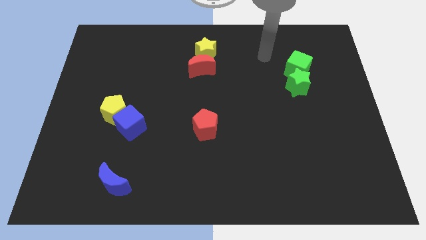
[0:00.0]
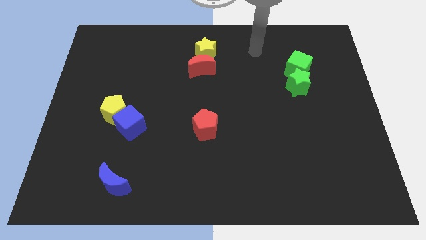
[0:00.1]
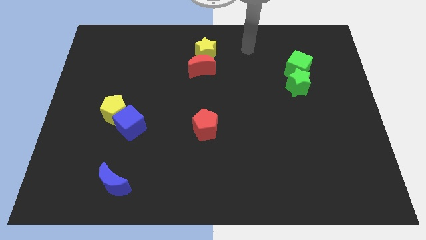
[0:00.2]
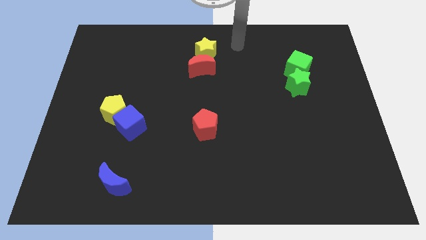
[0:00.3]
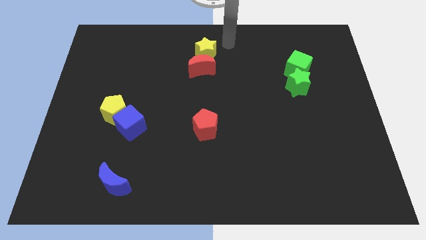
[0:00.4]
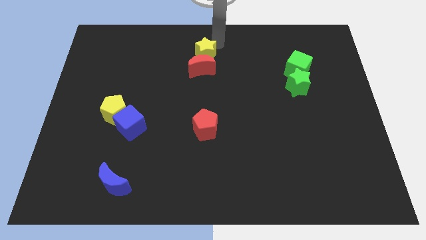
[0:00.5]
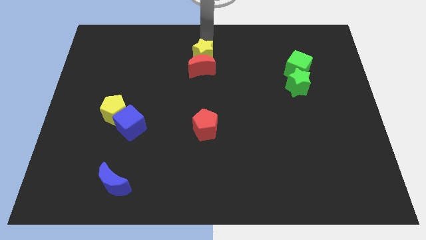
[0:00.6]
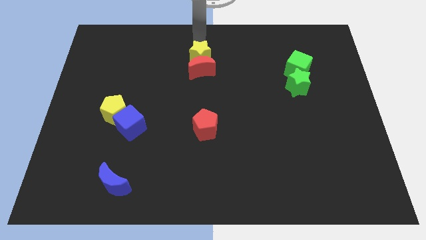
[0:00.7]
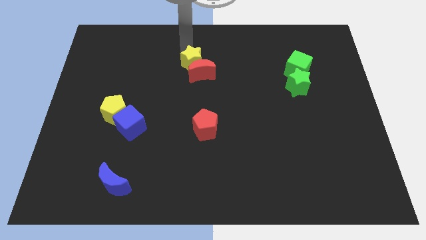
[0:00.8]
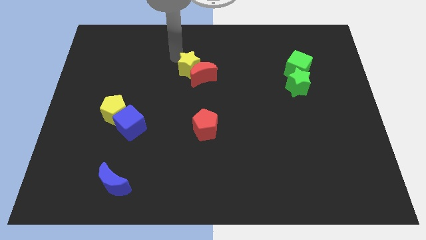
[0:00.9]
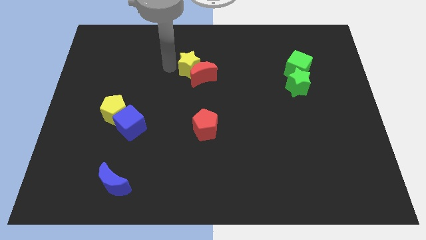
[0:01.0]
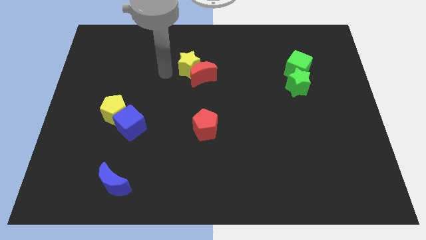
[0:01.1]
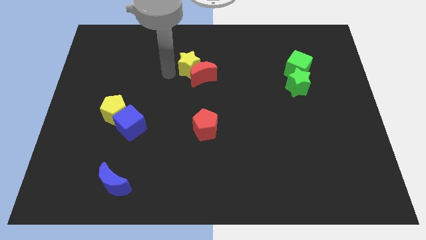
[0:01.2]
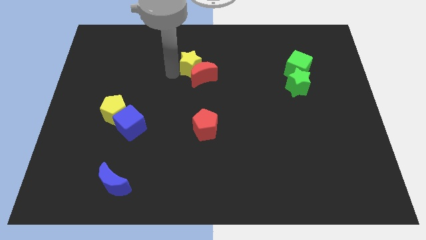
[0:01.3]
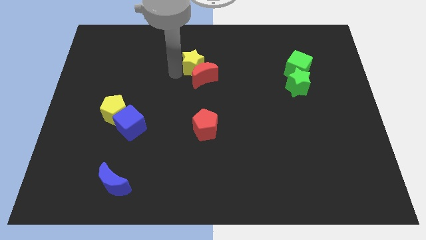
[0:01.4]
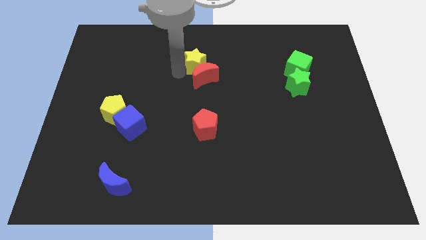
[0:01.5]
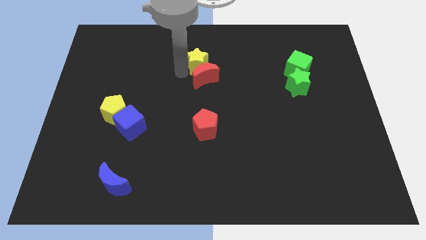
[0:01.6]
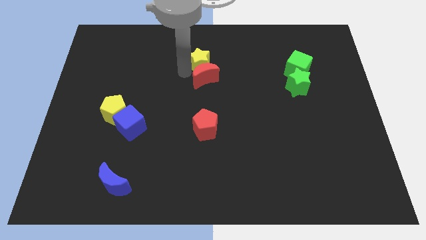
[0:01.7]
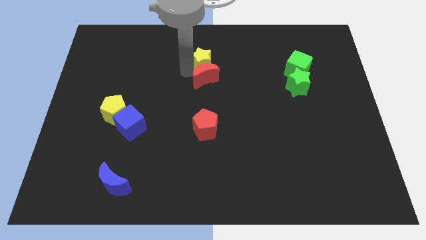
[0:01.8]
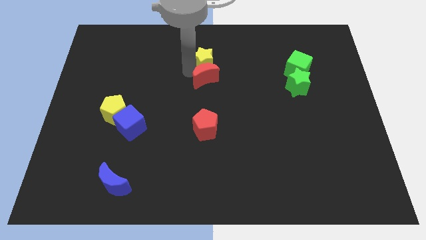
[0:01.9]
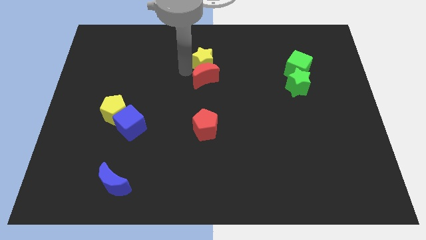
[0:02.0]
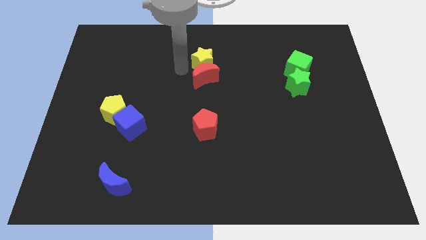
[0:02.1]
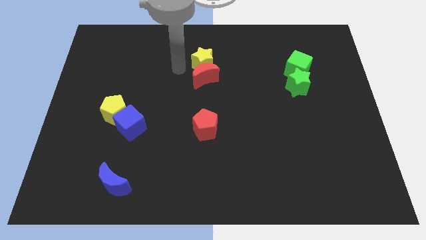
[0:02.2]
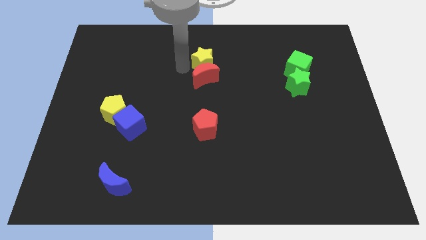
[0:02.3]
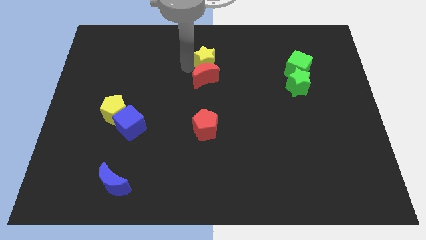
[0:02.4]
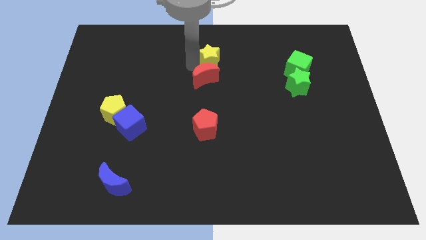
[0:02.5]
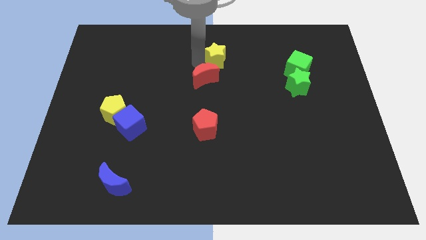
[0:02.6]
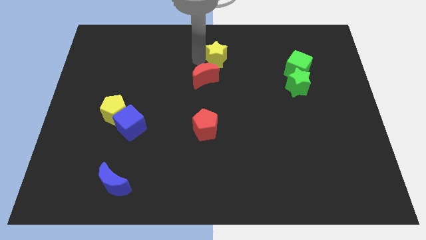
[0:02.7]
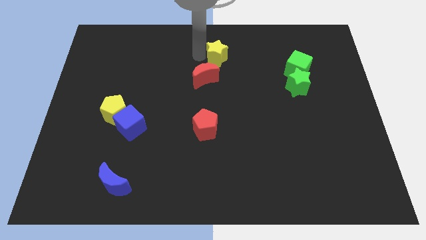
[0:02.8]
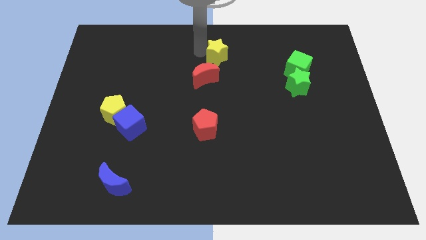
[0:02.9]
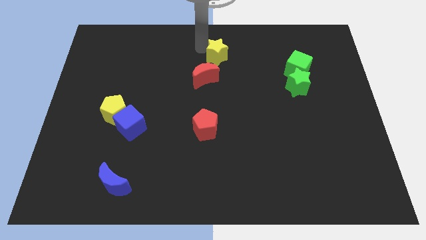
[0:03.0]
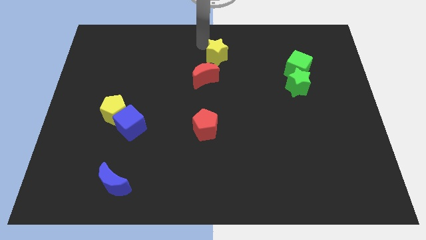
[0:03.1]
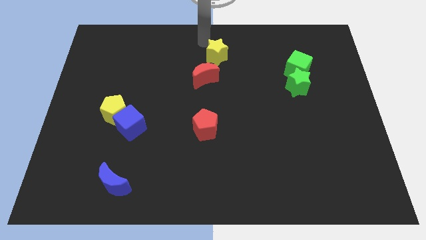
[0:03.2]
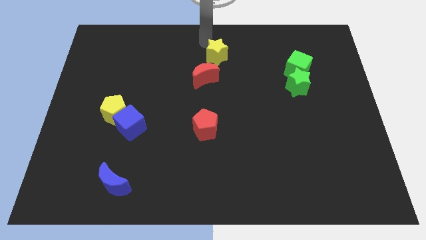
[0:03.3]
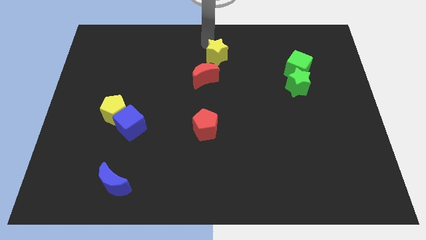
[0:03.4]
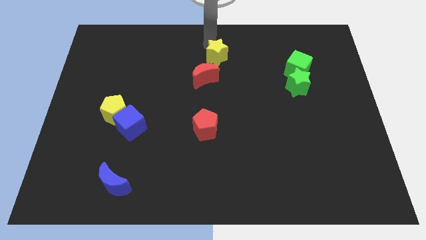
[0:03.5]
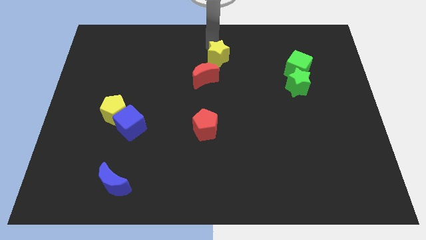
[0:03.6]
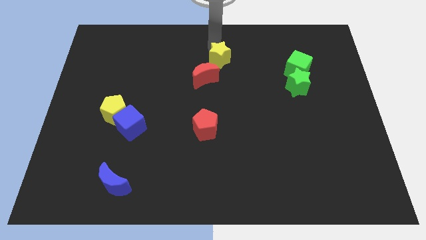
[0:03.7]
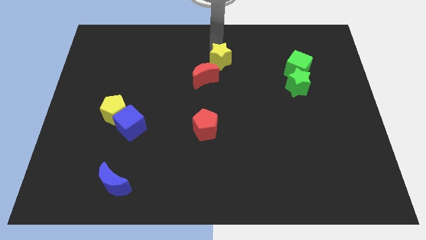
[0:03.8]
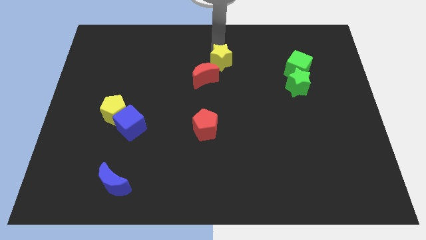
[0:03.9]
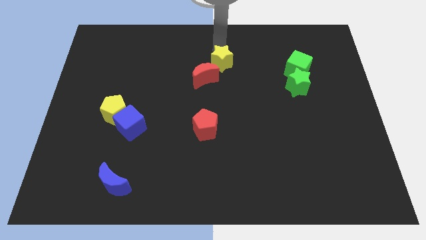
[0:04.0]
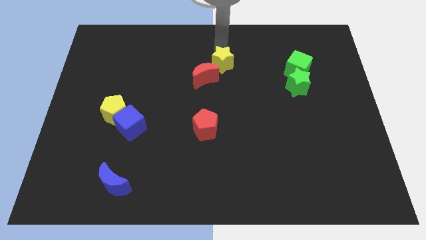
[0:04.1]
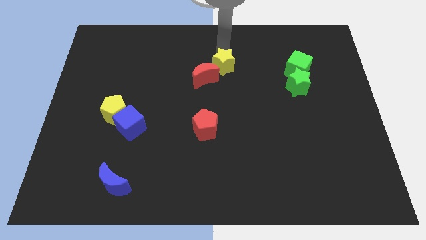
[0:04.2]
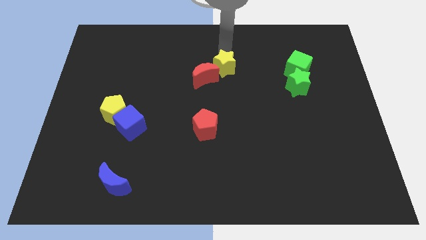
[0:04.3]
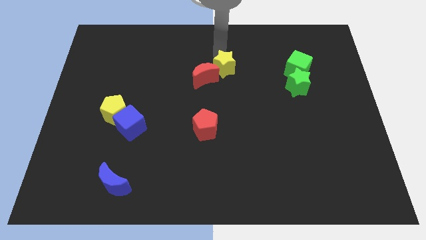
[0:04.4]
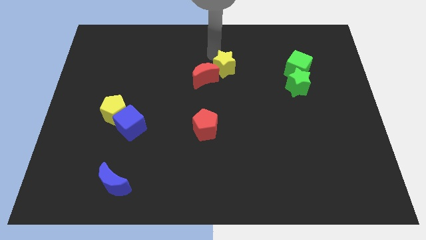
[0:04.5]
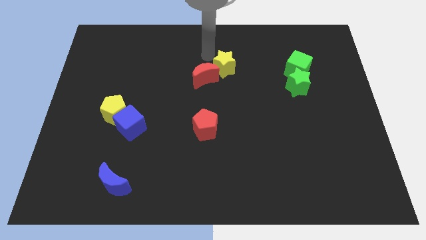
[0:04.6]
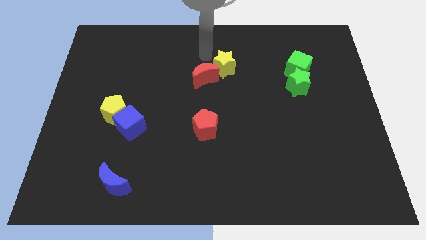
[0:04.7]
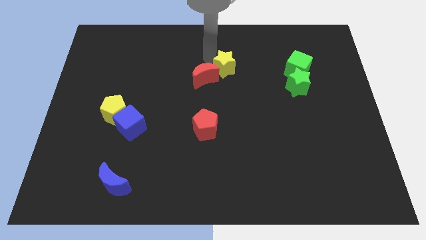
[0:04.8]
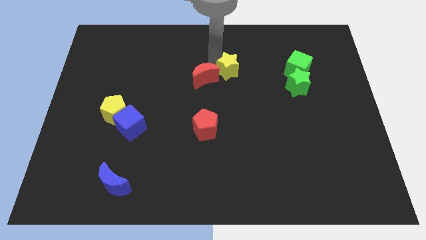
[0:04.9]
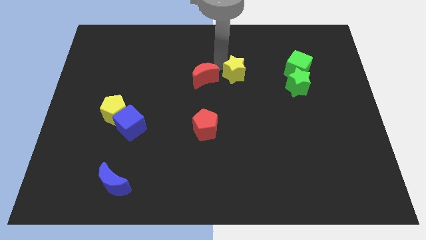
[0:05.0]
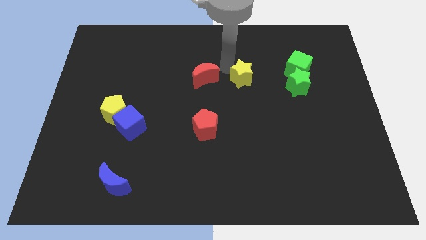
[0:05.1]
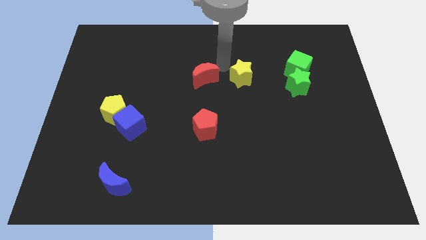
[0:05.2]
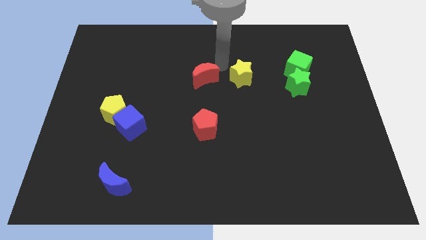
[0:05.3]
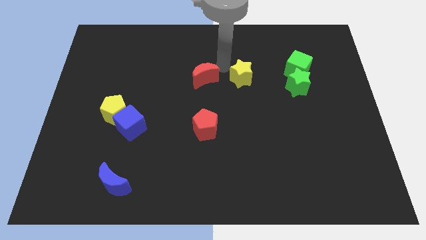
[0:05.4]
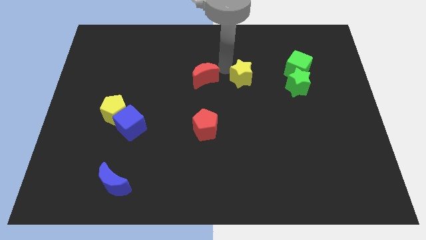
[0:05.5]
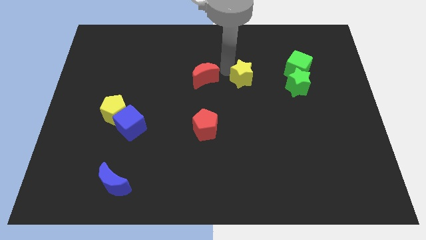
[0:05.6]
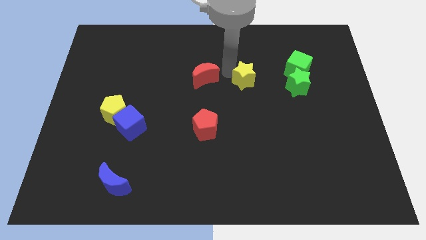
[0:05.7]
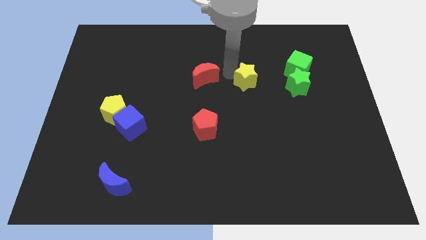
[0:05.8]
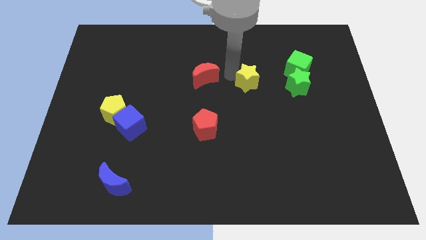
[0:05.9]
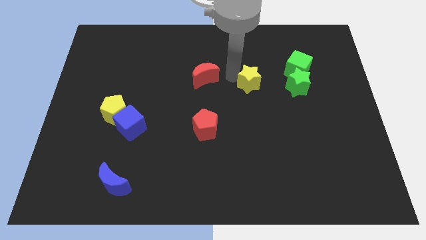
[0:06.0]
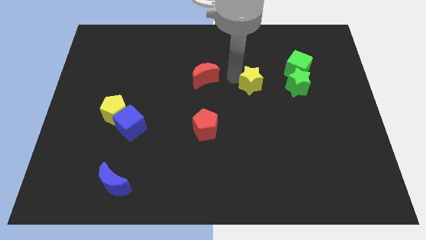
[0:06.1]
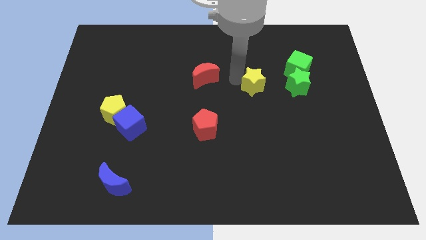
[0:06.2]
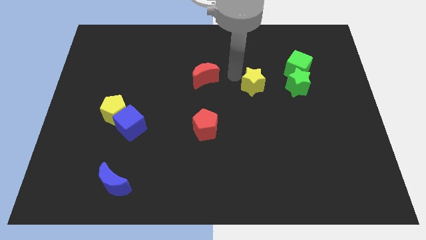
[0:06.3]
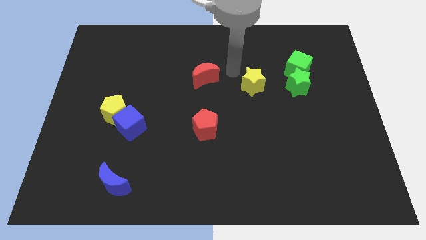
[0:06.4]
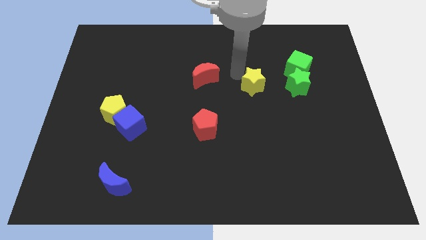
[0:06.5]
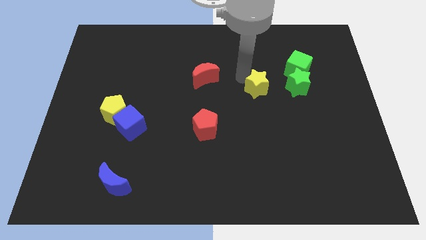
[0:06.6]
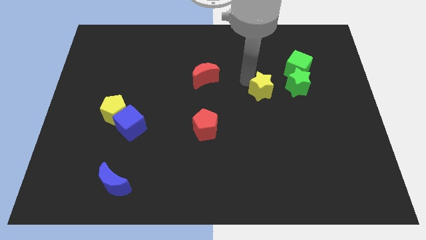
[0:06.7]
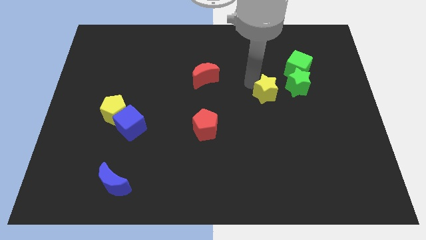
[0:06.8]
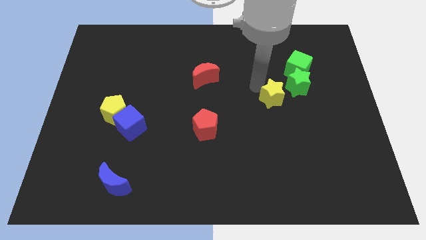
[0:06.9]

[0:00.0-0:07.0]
move the yellow star downwards and to the right

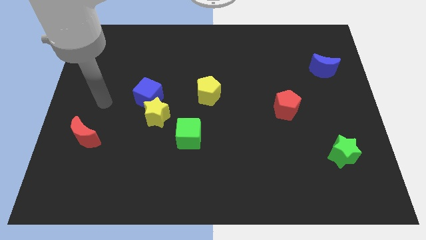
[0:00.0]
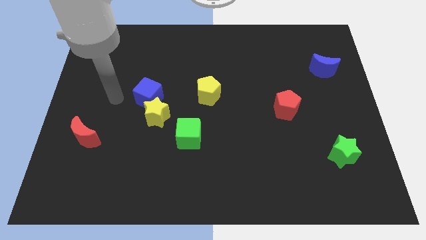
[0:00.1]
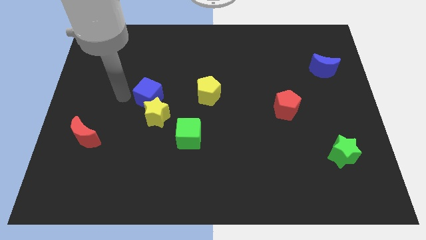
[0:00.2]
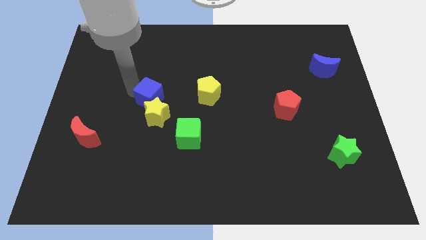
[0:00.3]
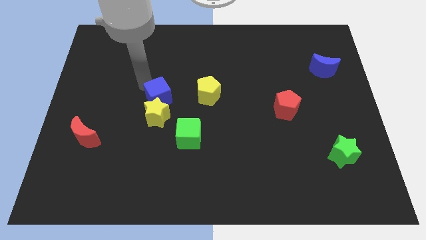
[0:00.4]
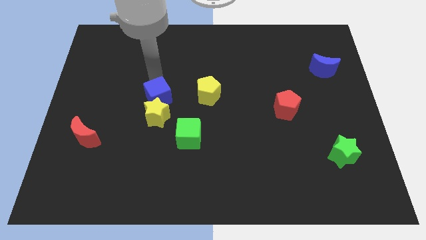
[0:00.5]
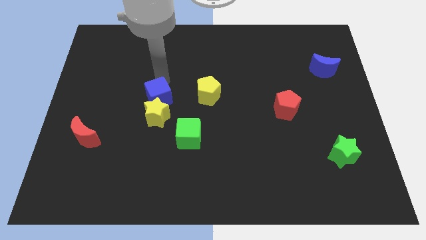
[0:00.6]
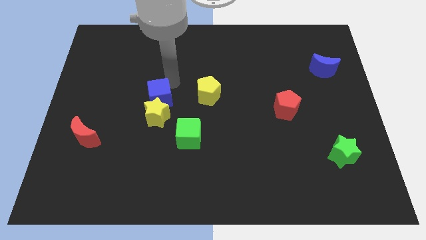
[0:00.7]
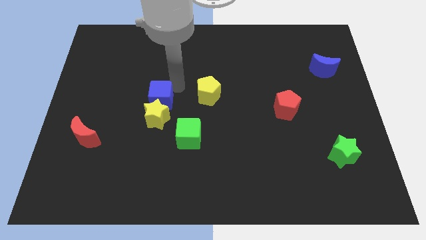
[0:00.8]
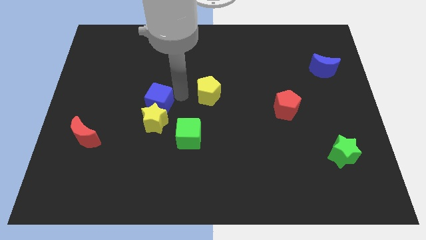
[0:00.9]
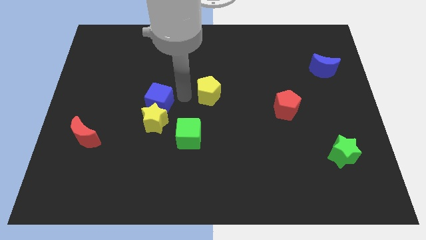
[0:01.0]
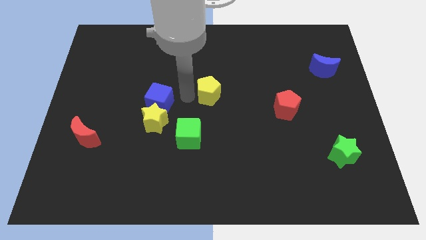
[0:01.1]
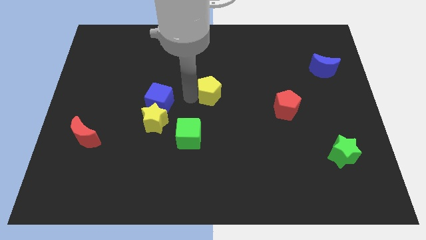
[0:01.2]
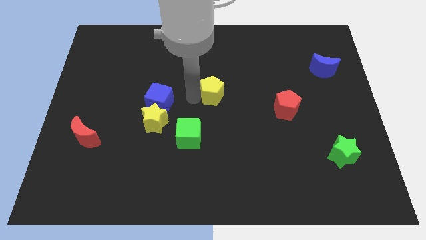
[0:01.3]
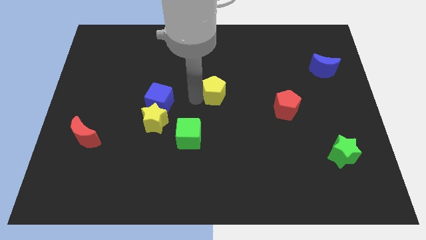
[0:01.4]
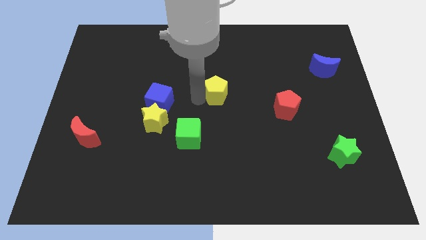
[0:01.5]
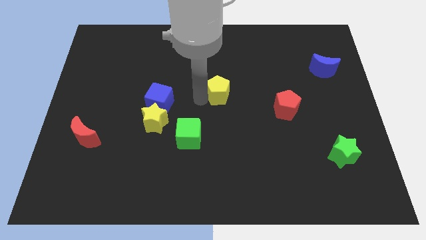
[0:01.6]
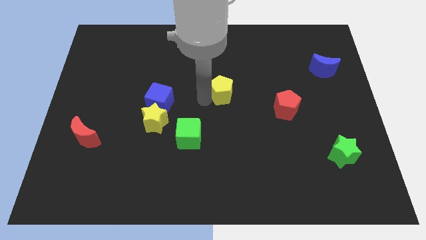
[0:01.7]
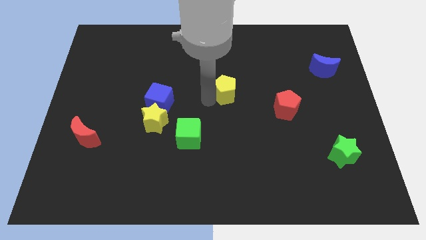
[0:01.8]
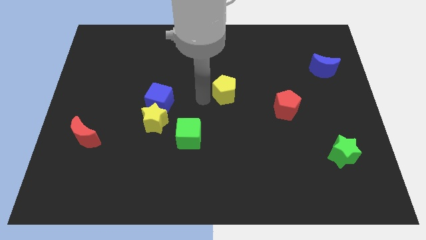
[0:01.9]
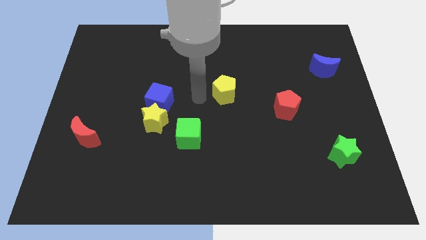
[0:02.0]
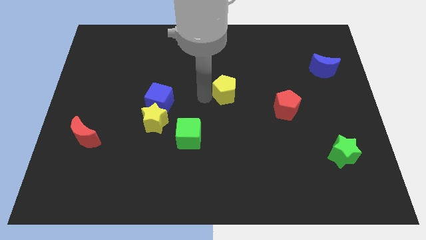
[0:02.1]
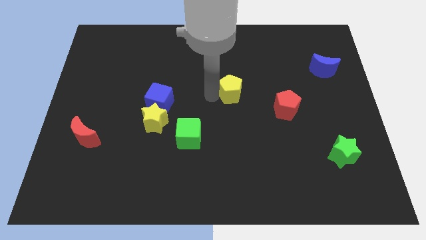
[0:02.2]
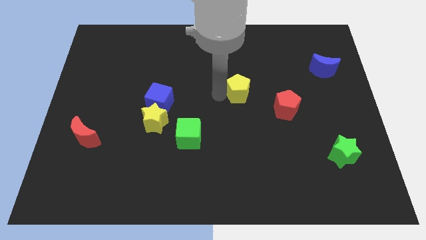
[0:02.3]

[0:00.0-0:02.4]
slightly slide the yellow pentagon to the right
